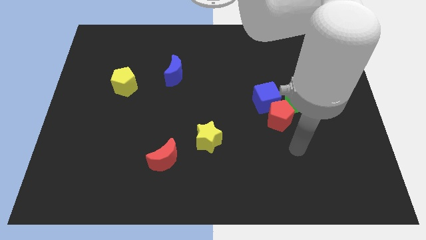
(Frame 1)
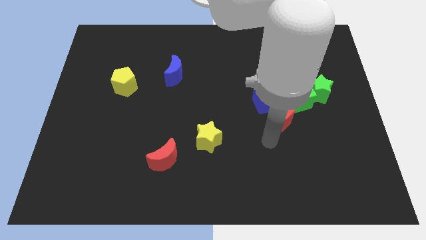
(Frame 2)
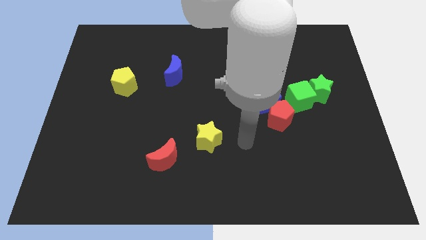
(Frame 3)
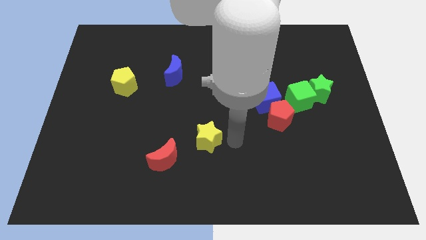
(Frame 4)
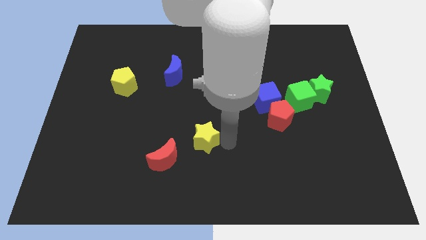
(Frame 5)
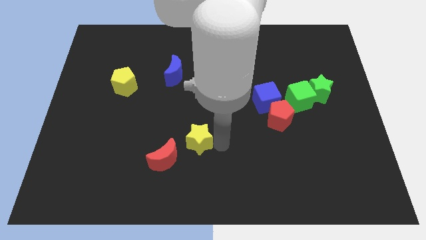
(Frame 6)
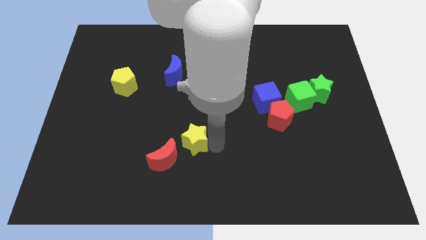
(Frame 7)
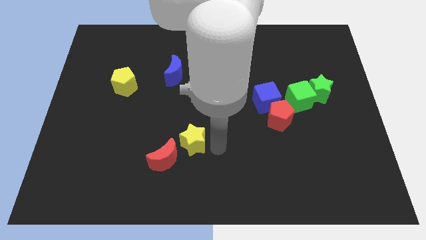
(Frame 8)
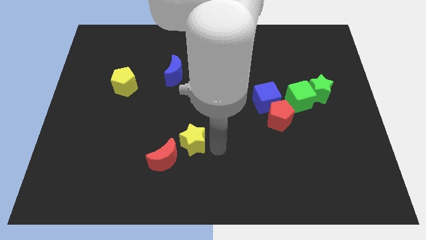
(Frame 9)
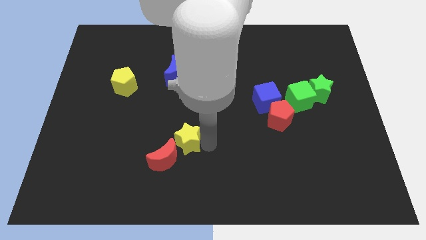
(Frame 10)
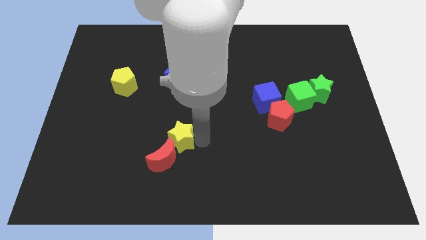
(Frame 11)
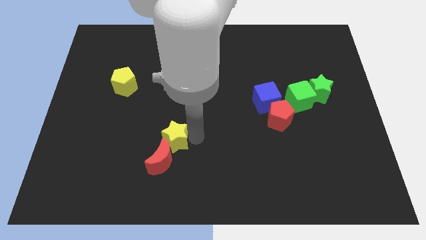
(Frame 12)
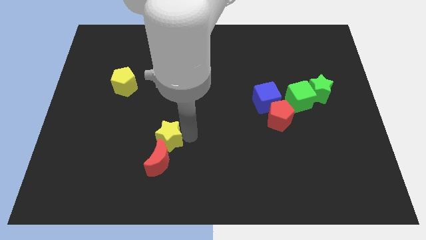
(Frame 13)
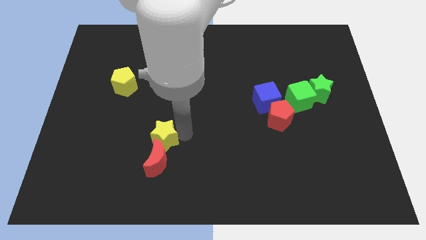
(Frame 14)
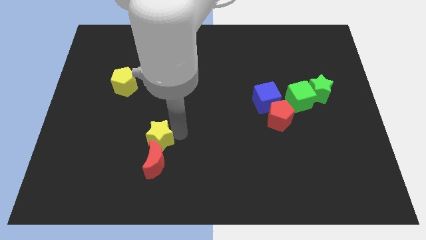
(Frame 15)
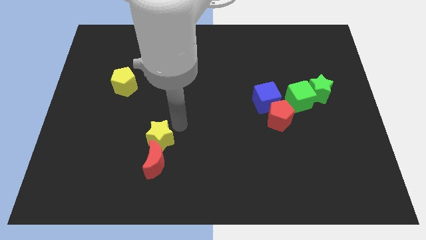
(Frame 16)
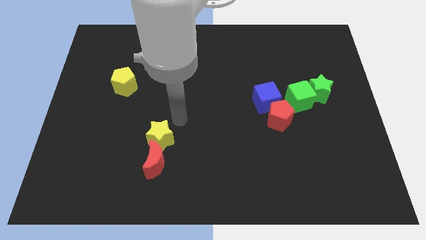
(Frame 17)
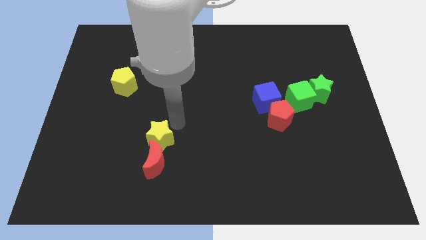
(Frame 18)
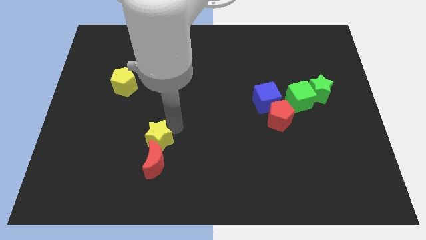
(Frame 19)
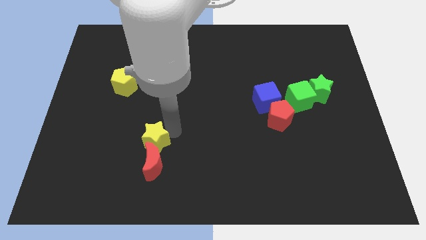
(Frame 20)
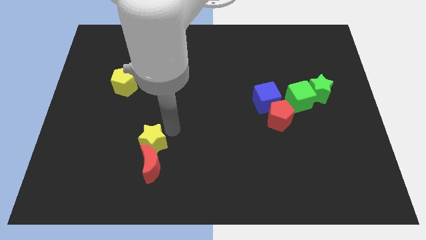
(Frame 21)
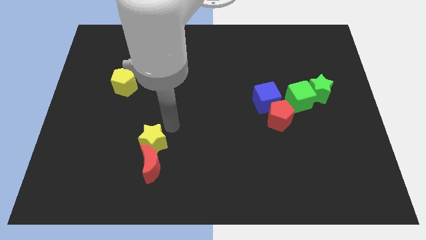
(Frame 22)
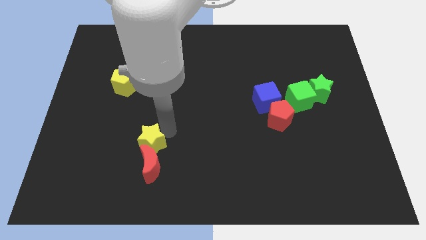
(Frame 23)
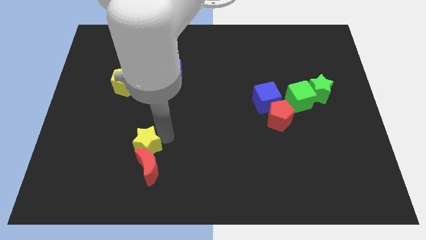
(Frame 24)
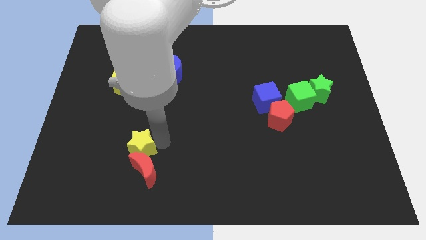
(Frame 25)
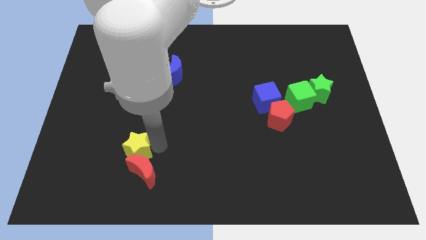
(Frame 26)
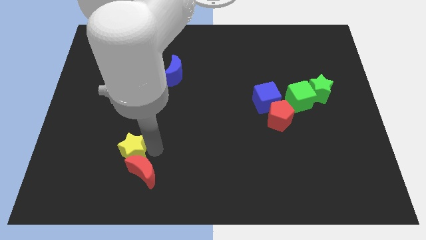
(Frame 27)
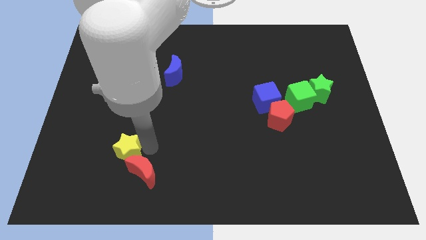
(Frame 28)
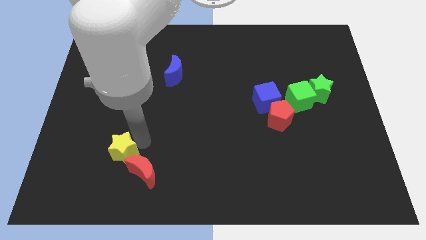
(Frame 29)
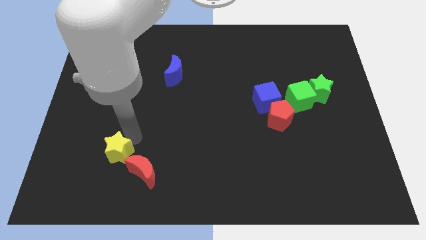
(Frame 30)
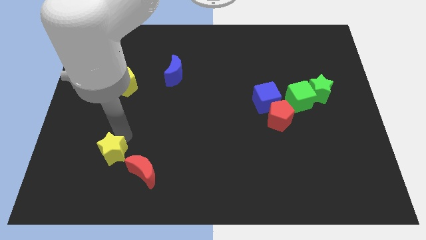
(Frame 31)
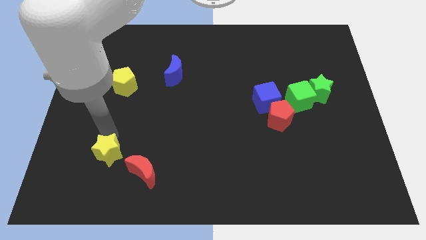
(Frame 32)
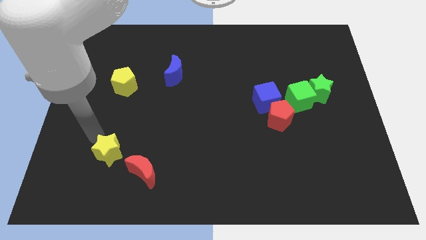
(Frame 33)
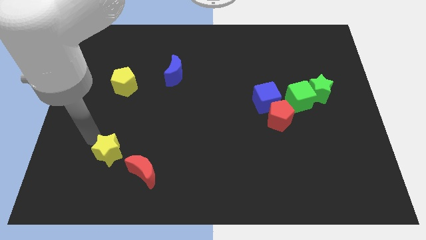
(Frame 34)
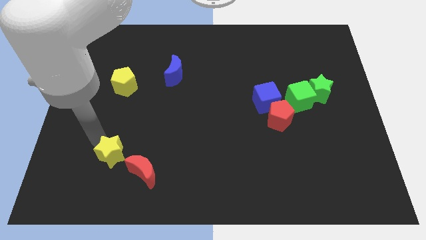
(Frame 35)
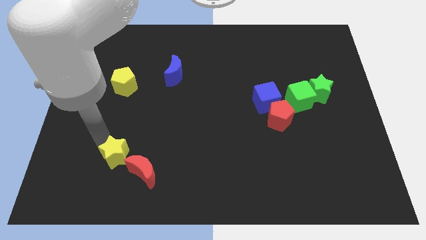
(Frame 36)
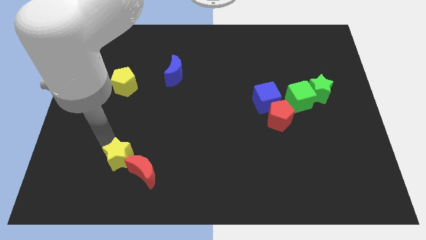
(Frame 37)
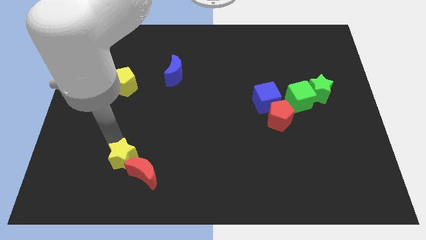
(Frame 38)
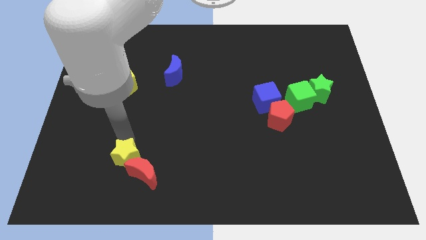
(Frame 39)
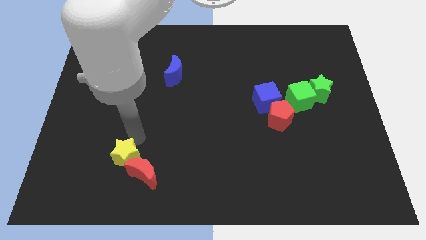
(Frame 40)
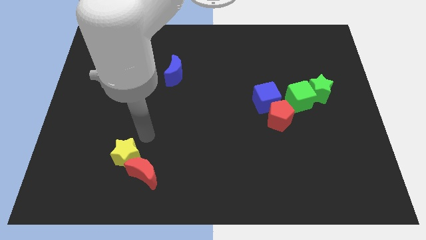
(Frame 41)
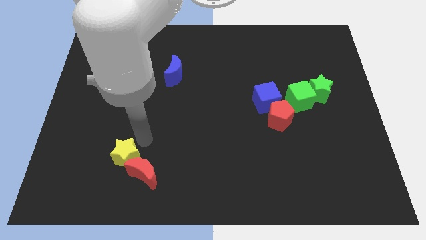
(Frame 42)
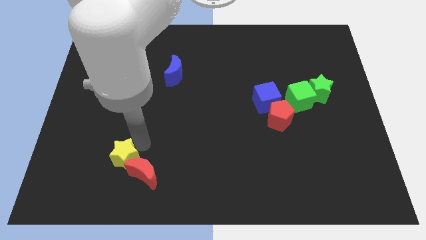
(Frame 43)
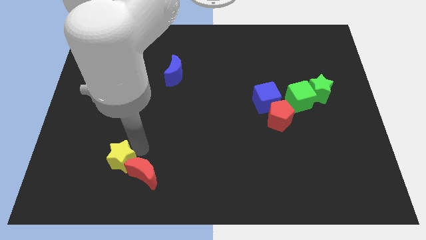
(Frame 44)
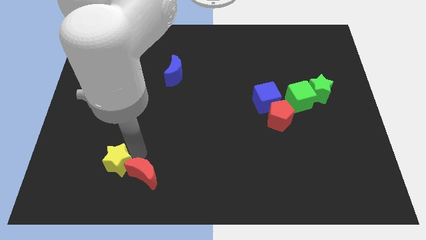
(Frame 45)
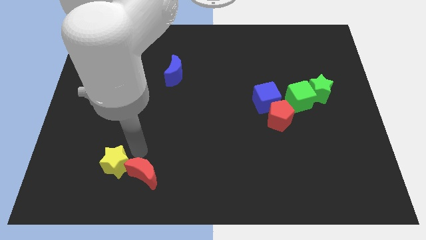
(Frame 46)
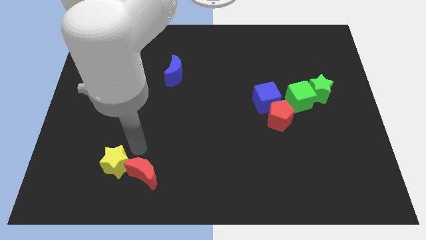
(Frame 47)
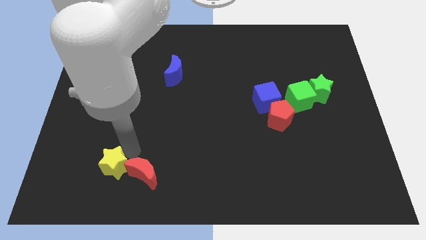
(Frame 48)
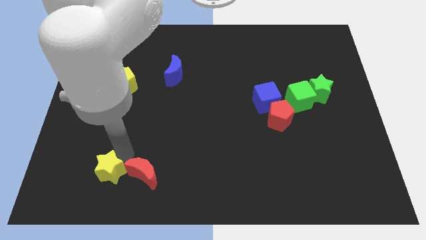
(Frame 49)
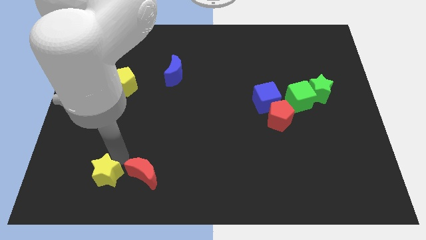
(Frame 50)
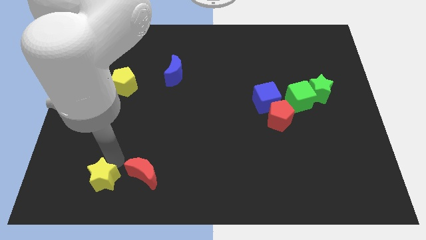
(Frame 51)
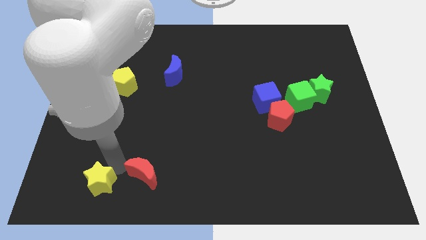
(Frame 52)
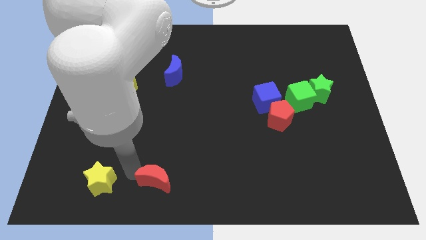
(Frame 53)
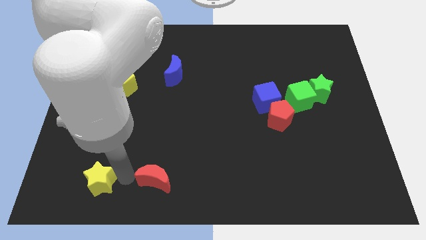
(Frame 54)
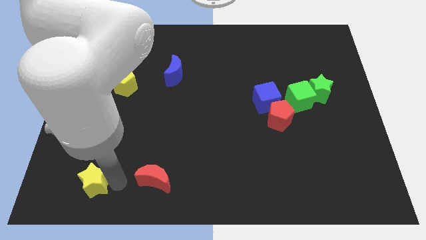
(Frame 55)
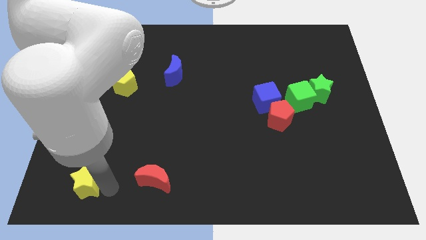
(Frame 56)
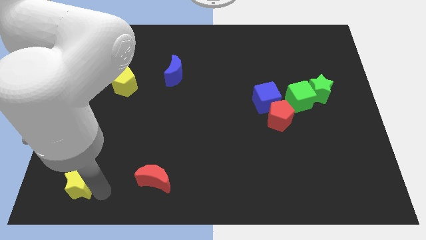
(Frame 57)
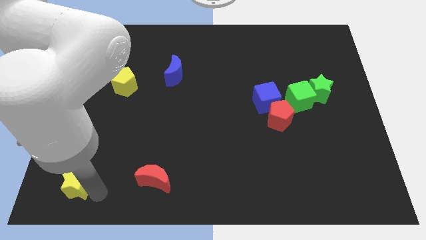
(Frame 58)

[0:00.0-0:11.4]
slide the yellow star to the lower left corner
